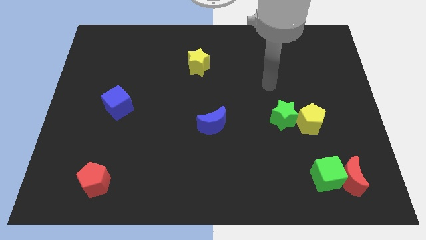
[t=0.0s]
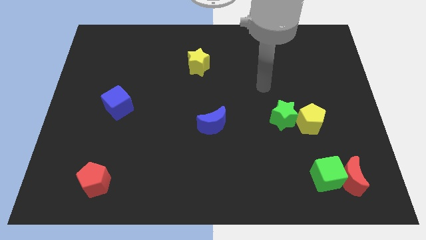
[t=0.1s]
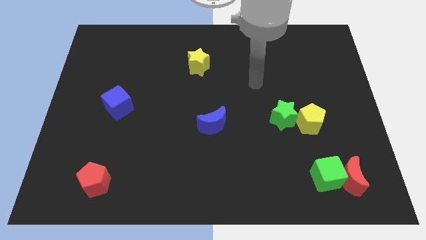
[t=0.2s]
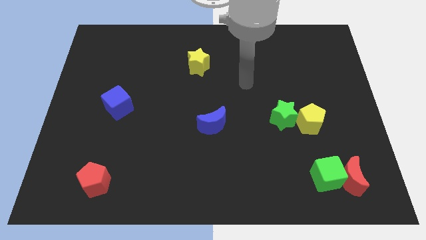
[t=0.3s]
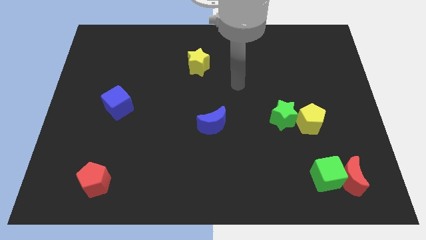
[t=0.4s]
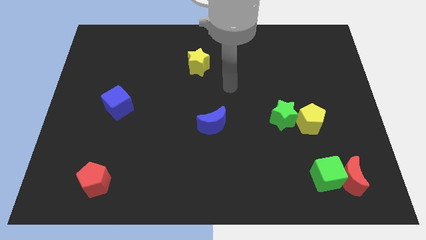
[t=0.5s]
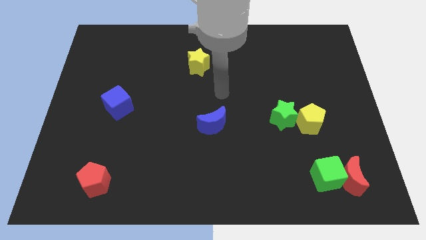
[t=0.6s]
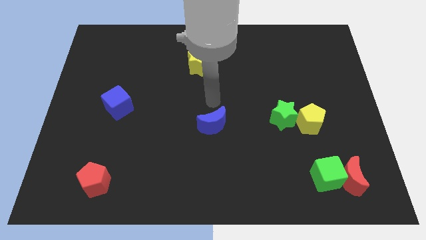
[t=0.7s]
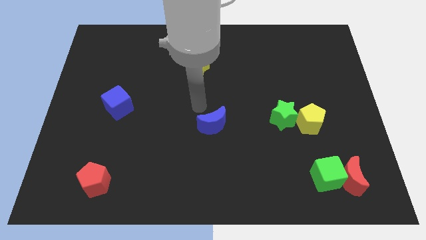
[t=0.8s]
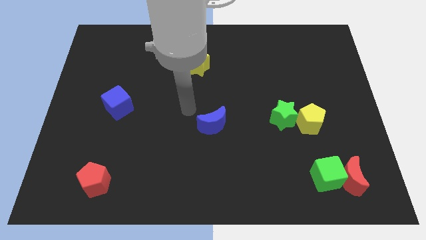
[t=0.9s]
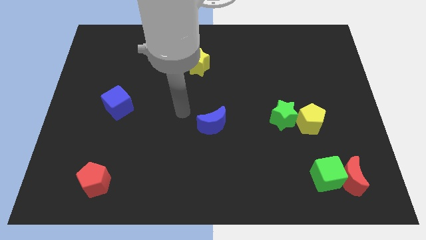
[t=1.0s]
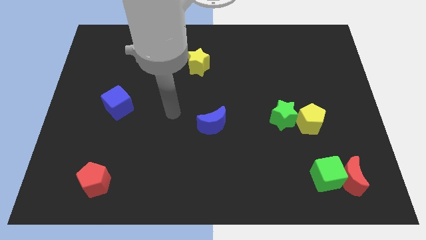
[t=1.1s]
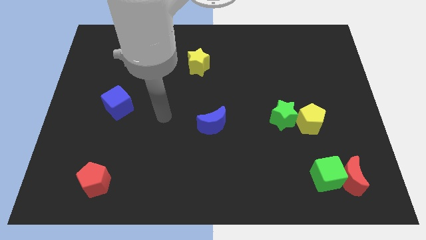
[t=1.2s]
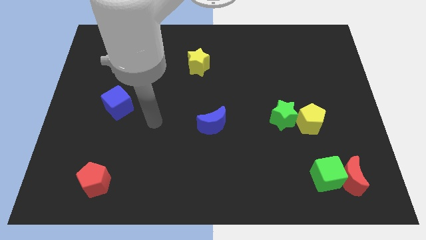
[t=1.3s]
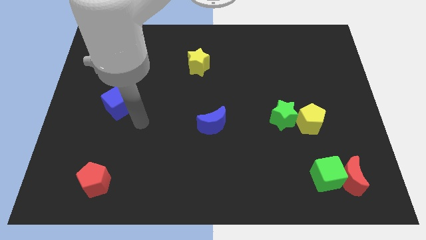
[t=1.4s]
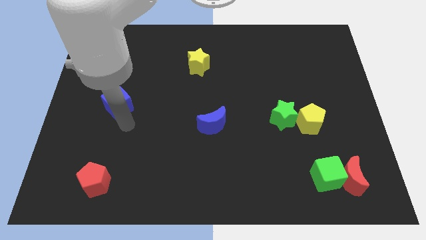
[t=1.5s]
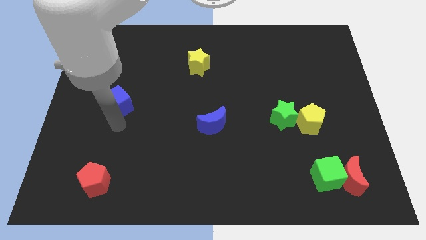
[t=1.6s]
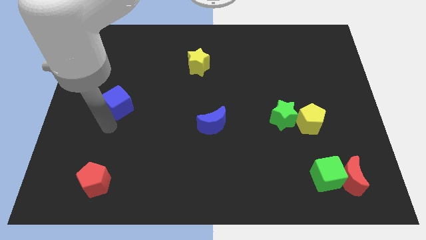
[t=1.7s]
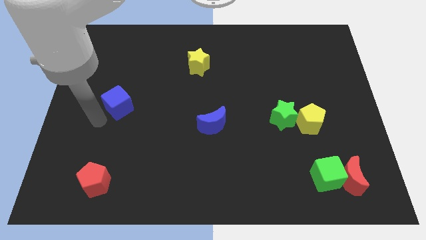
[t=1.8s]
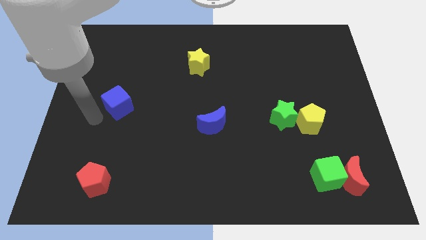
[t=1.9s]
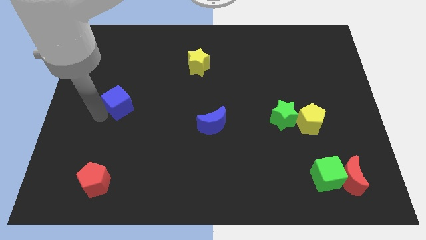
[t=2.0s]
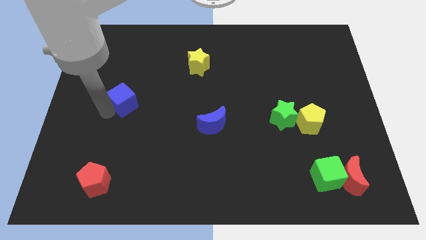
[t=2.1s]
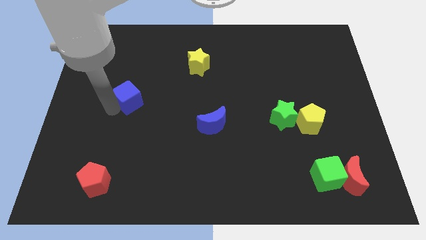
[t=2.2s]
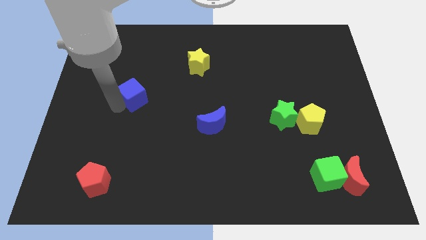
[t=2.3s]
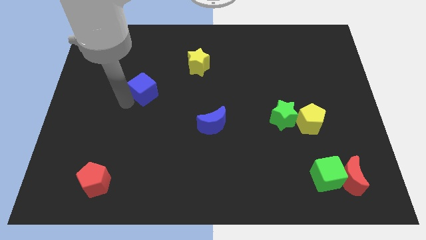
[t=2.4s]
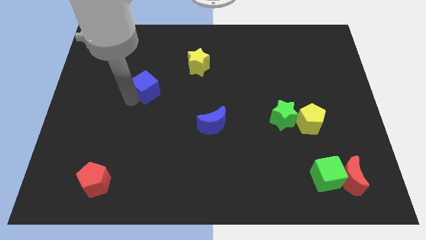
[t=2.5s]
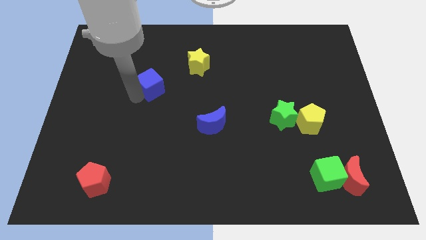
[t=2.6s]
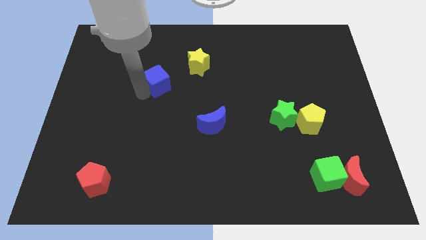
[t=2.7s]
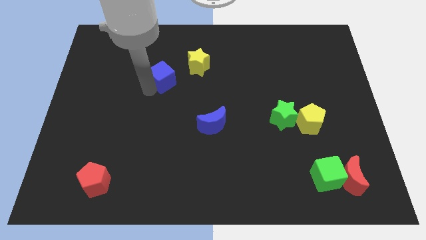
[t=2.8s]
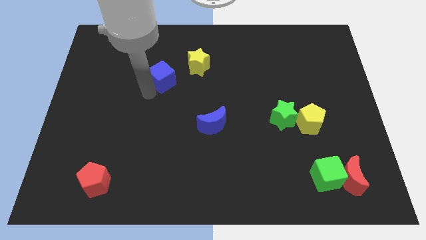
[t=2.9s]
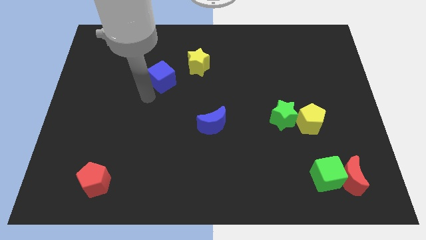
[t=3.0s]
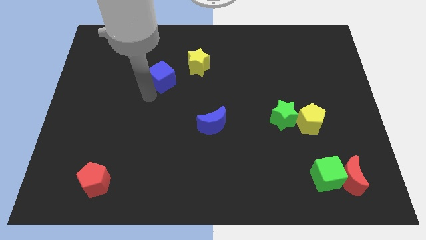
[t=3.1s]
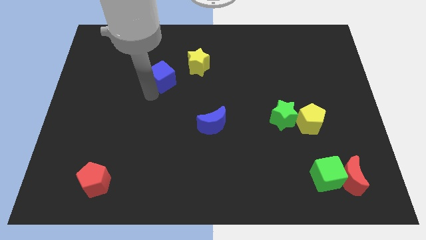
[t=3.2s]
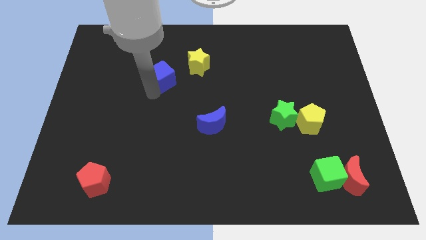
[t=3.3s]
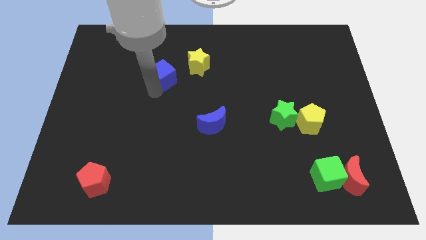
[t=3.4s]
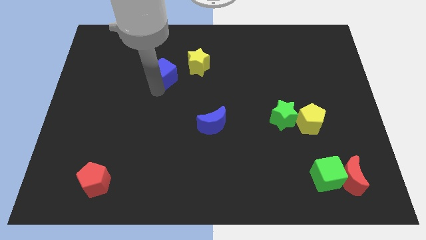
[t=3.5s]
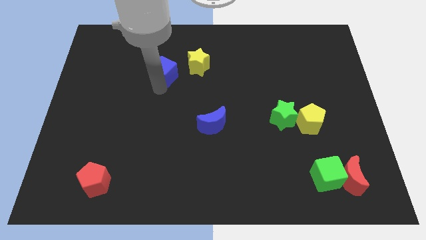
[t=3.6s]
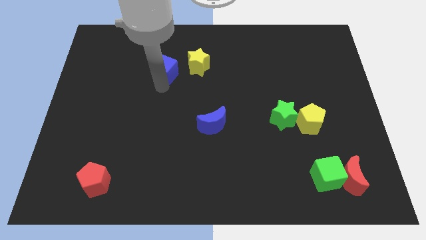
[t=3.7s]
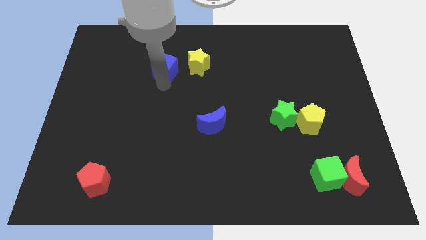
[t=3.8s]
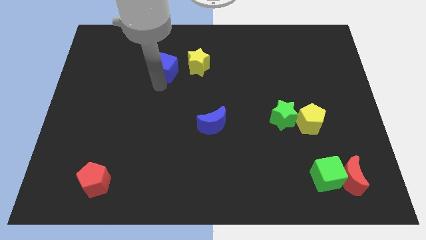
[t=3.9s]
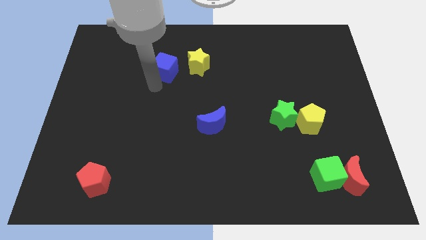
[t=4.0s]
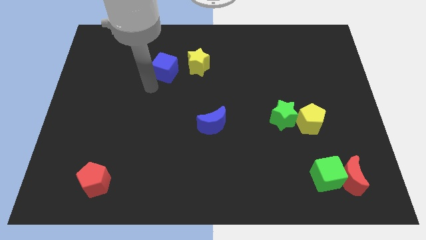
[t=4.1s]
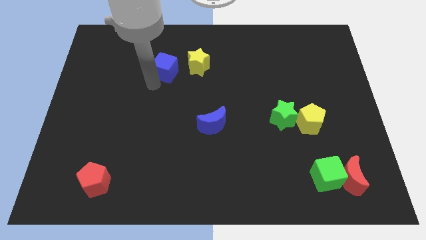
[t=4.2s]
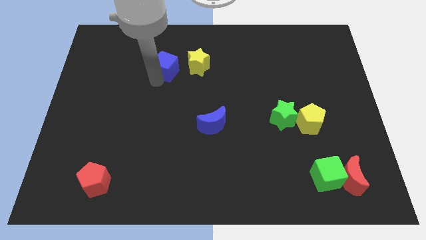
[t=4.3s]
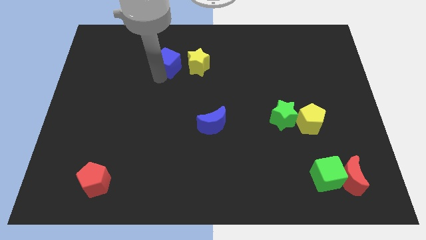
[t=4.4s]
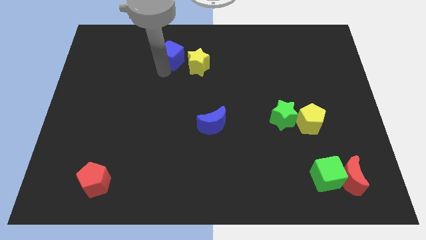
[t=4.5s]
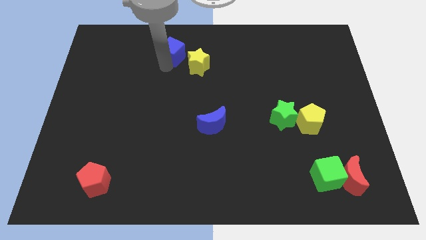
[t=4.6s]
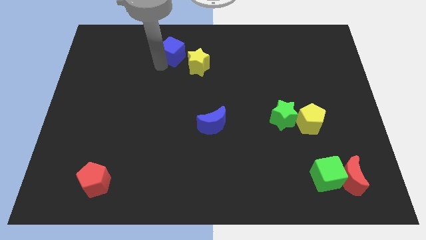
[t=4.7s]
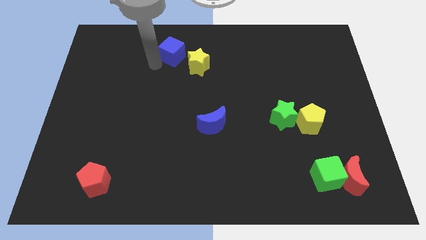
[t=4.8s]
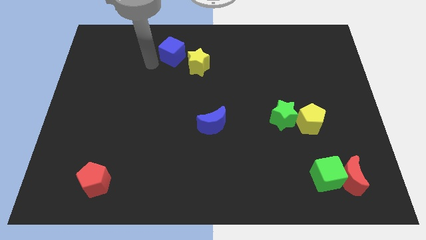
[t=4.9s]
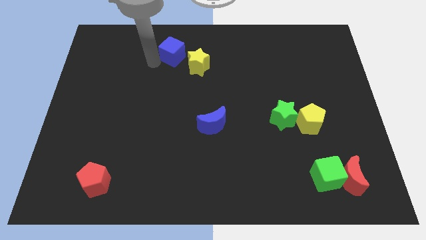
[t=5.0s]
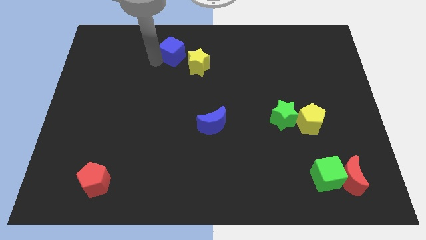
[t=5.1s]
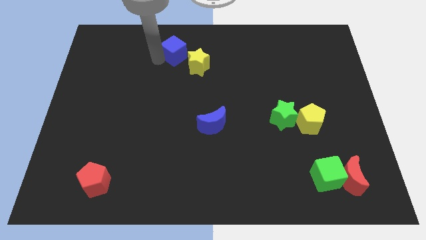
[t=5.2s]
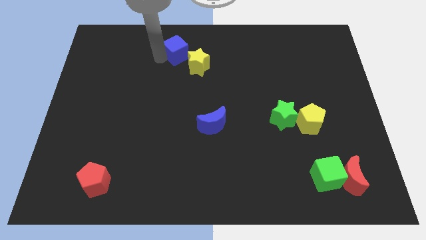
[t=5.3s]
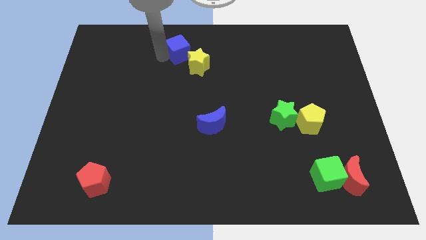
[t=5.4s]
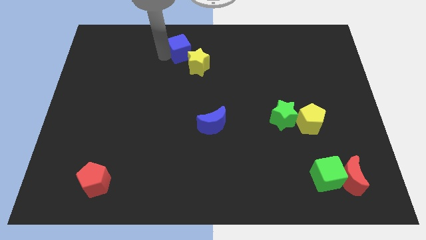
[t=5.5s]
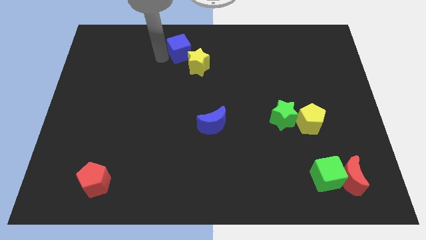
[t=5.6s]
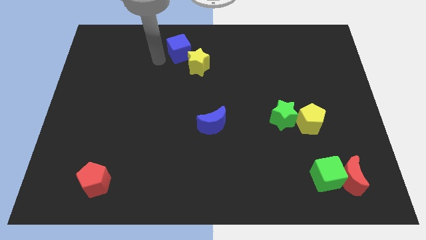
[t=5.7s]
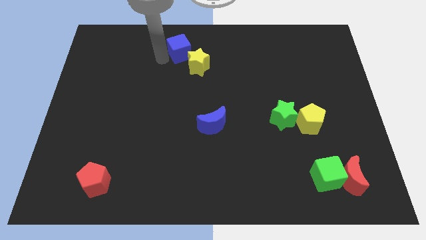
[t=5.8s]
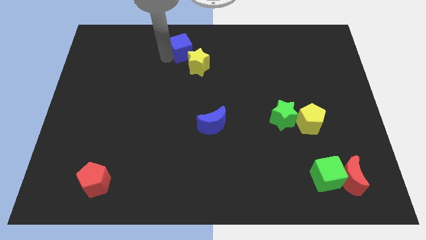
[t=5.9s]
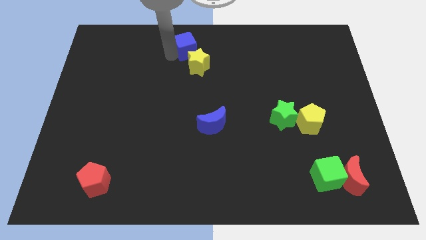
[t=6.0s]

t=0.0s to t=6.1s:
push the blue cube to the top side

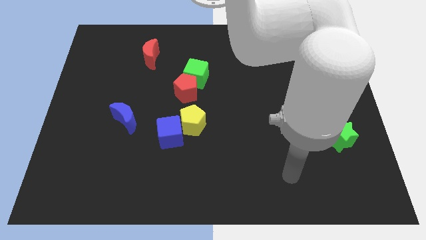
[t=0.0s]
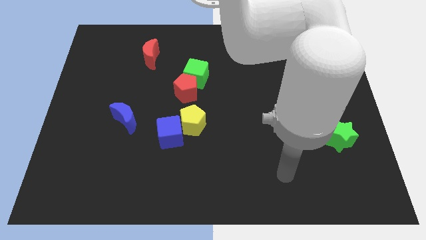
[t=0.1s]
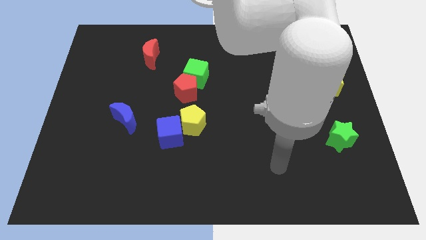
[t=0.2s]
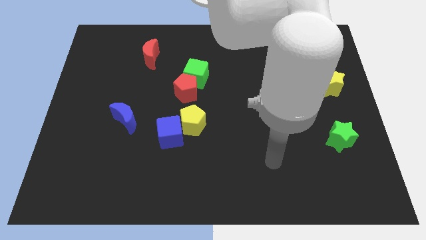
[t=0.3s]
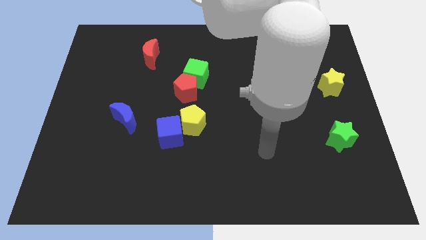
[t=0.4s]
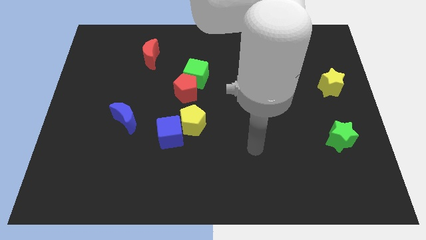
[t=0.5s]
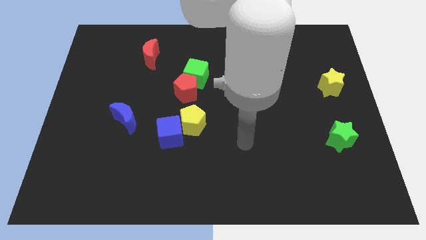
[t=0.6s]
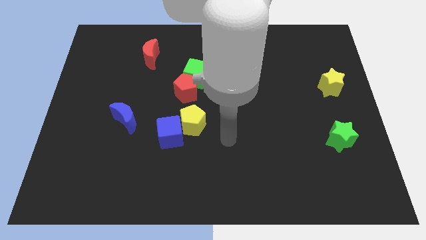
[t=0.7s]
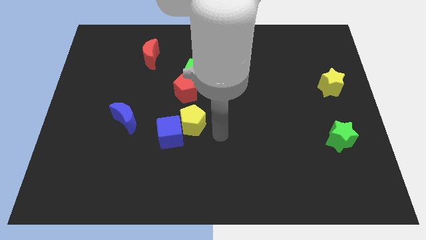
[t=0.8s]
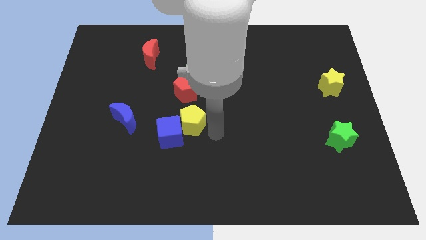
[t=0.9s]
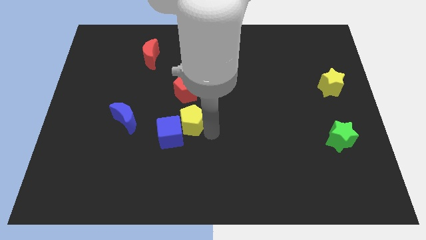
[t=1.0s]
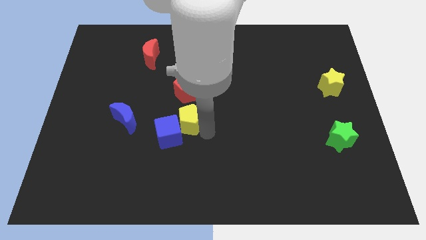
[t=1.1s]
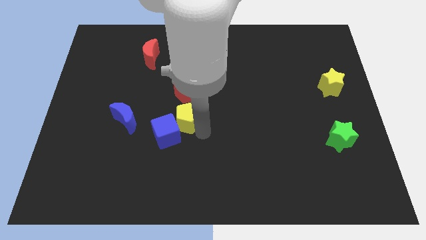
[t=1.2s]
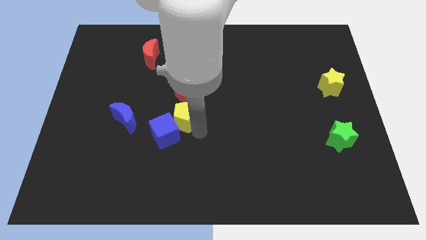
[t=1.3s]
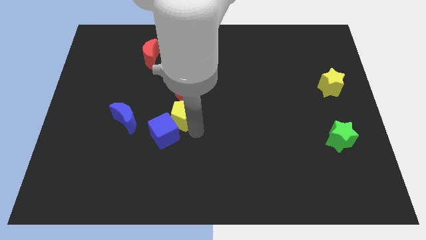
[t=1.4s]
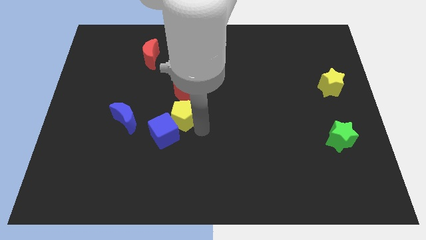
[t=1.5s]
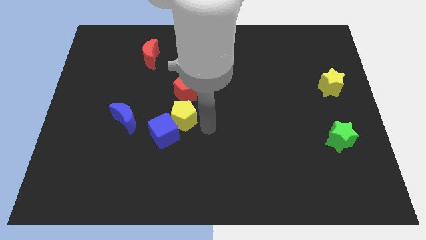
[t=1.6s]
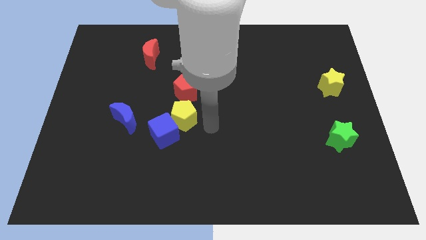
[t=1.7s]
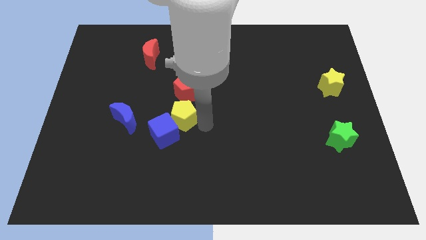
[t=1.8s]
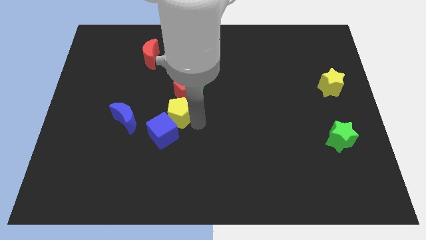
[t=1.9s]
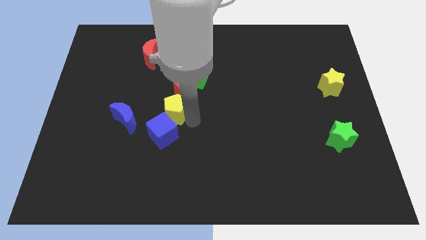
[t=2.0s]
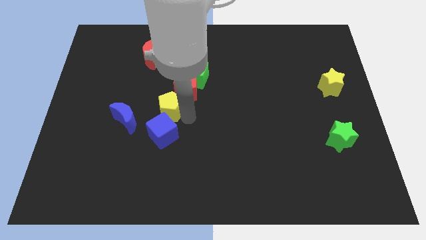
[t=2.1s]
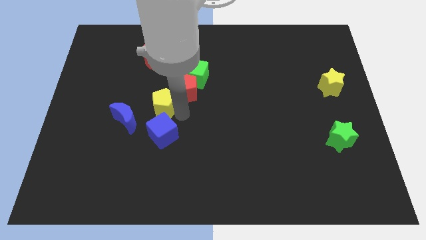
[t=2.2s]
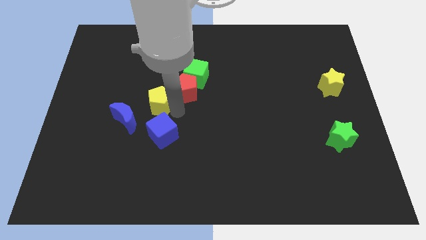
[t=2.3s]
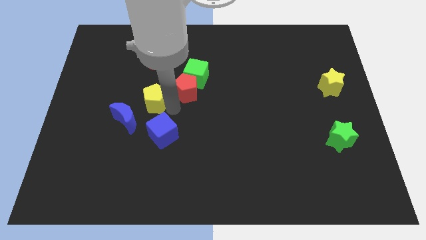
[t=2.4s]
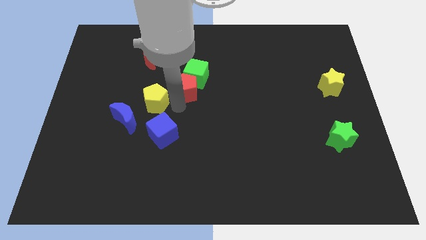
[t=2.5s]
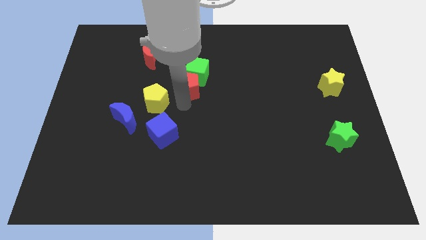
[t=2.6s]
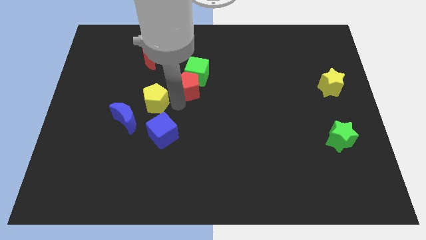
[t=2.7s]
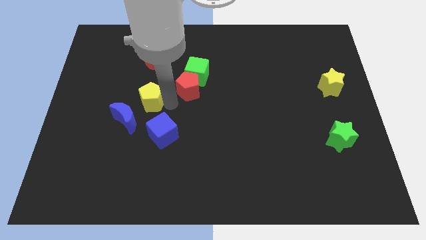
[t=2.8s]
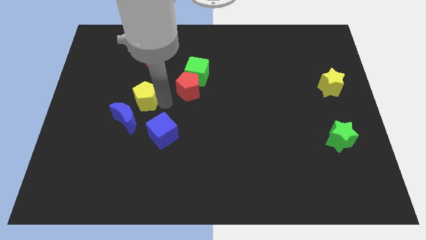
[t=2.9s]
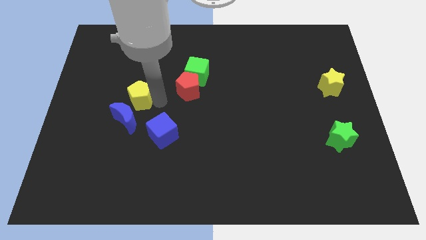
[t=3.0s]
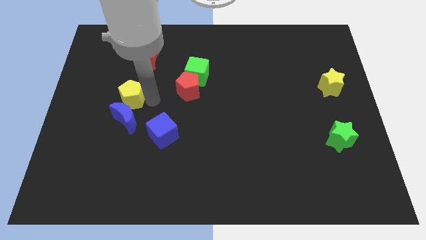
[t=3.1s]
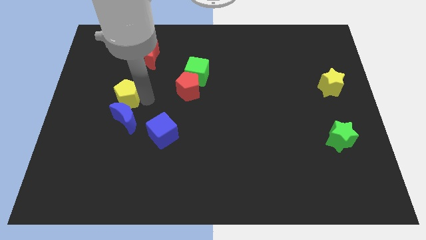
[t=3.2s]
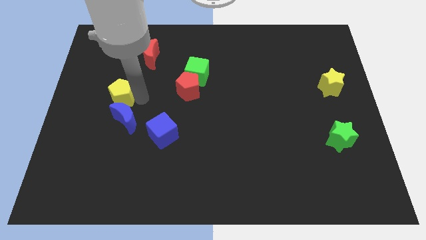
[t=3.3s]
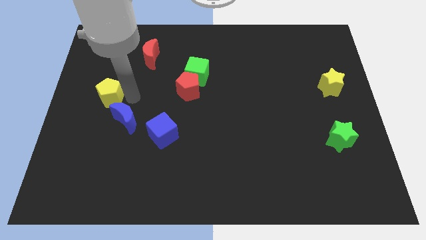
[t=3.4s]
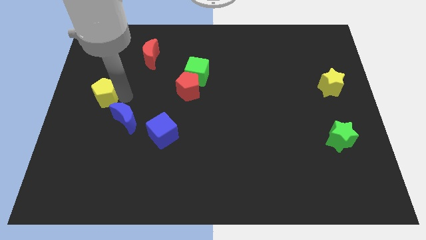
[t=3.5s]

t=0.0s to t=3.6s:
slide the yellow pentagon to the left side
